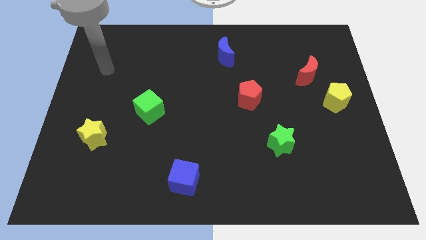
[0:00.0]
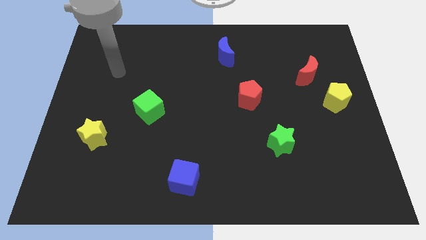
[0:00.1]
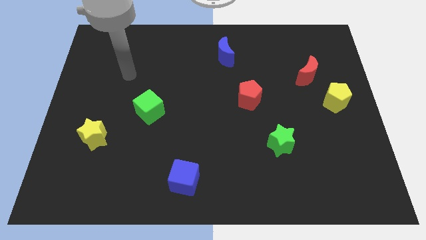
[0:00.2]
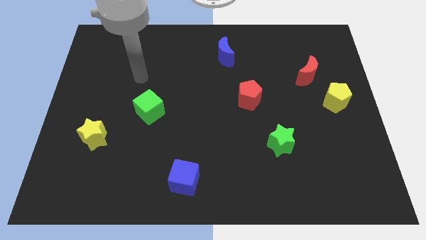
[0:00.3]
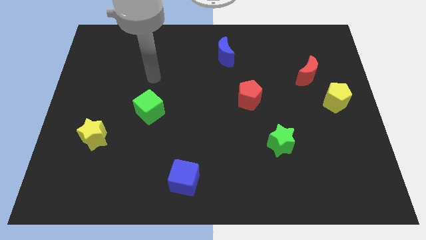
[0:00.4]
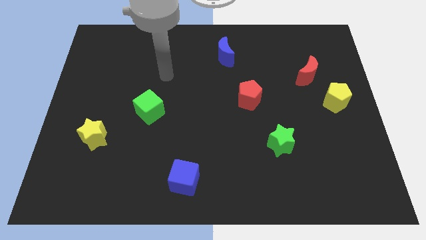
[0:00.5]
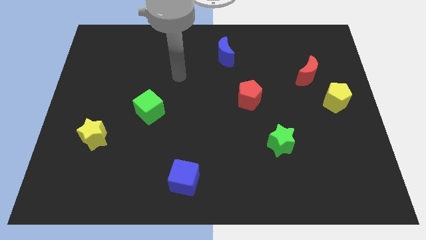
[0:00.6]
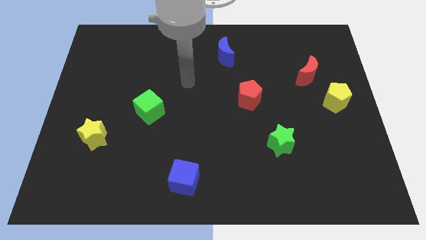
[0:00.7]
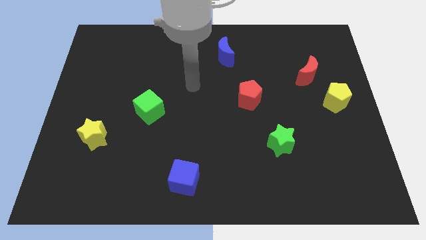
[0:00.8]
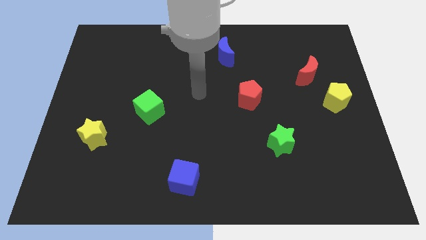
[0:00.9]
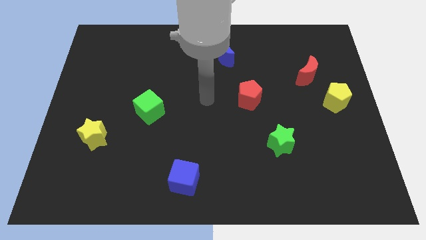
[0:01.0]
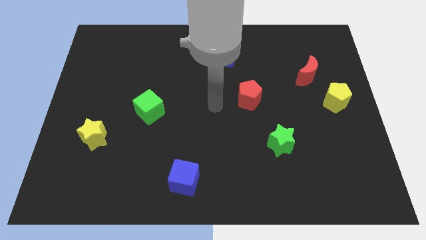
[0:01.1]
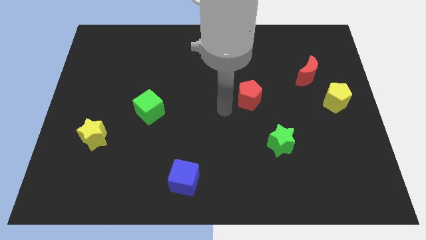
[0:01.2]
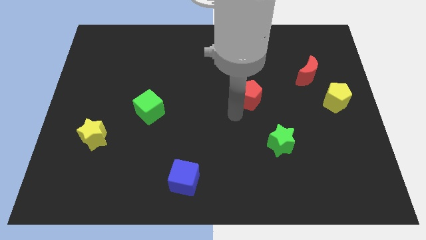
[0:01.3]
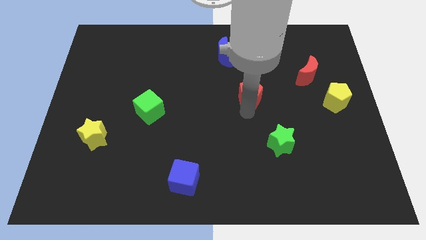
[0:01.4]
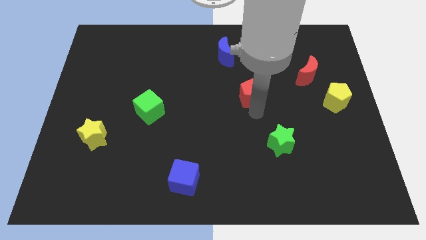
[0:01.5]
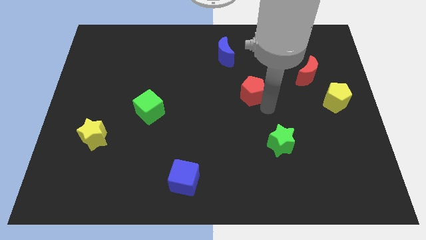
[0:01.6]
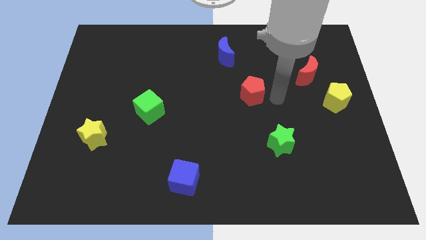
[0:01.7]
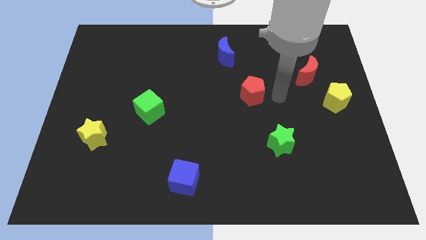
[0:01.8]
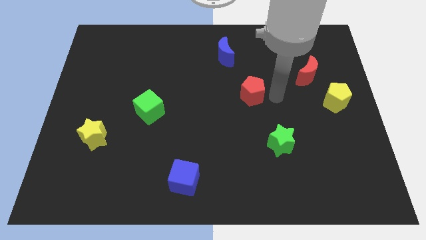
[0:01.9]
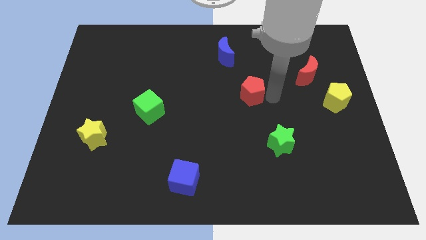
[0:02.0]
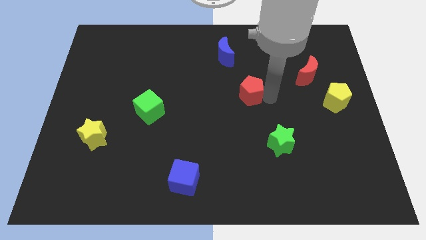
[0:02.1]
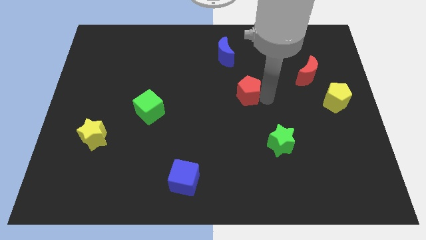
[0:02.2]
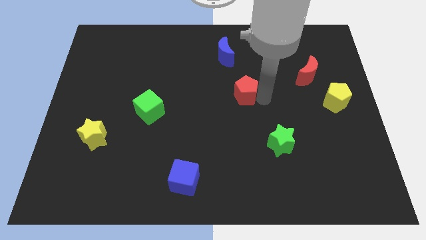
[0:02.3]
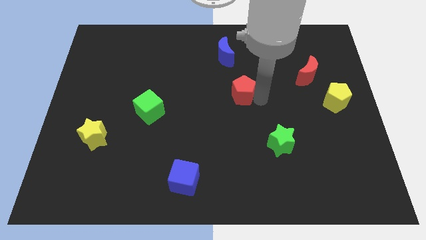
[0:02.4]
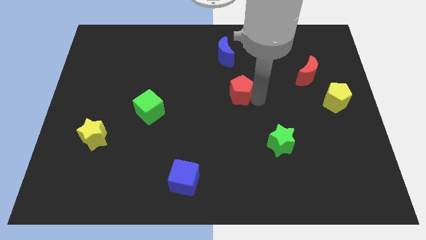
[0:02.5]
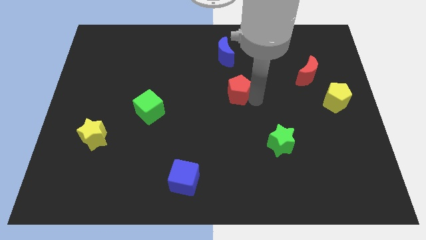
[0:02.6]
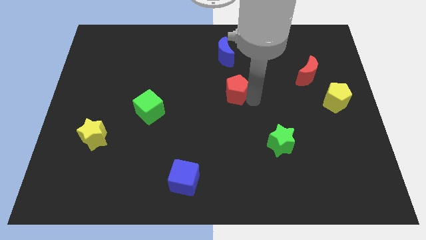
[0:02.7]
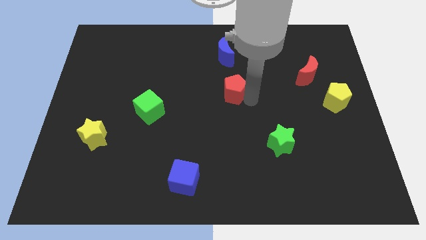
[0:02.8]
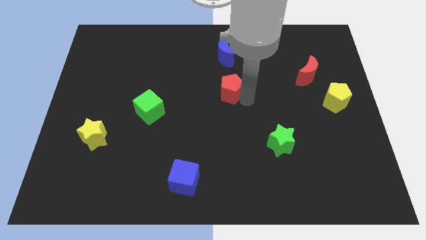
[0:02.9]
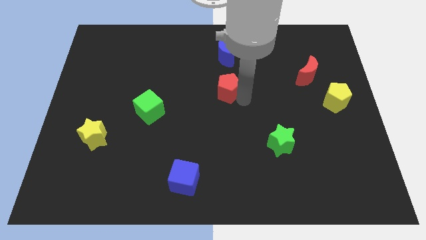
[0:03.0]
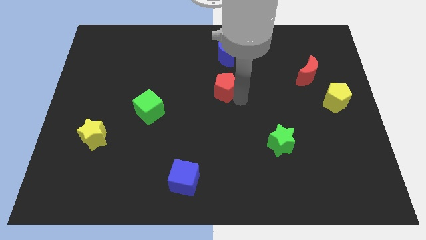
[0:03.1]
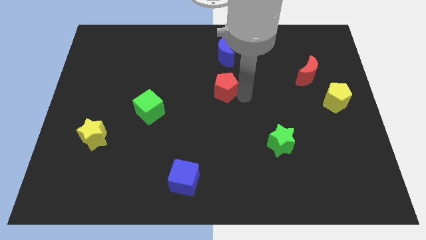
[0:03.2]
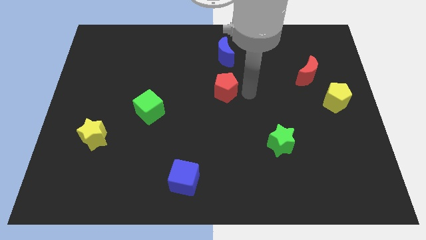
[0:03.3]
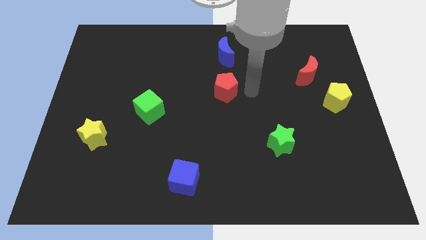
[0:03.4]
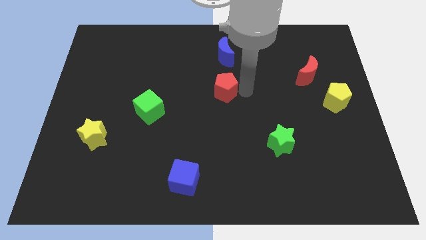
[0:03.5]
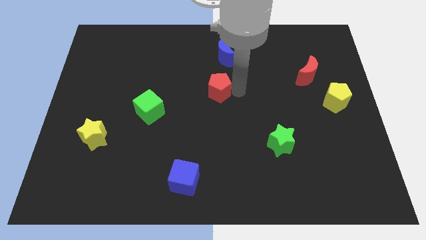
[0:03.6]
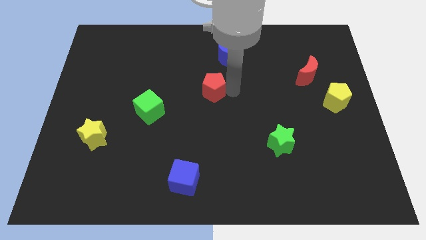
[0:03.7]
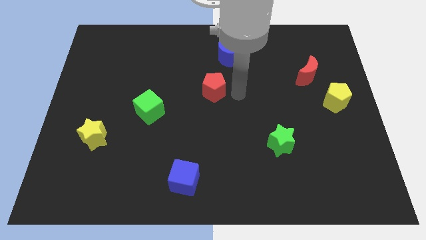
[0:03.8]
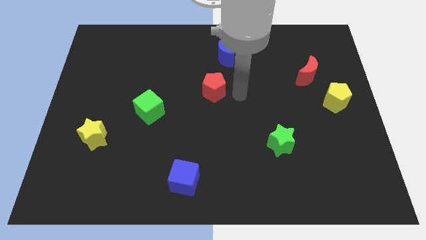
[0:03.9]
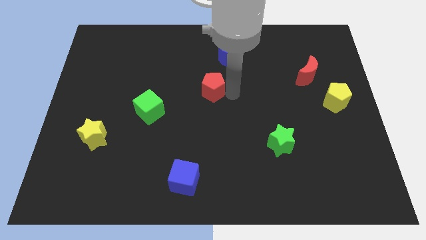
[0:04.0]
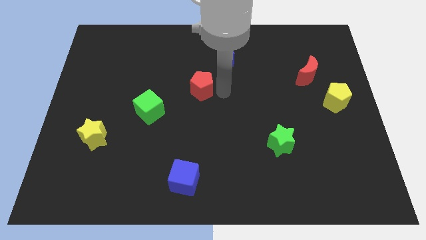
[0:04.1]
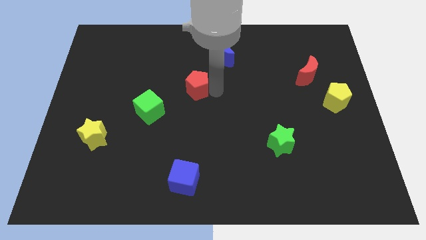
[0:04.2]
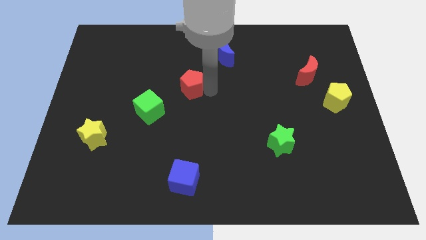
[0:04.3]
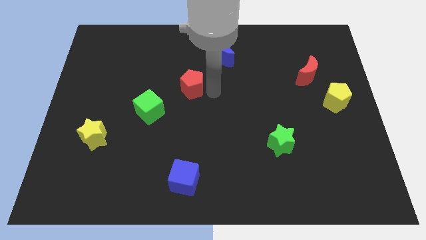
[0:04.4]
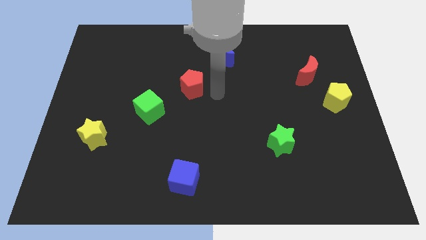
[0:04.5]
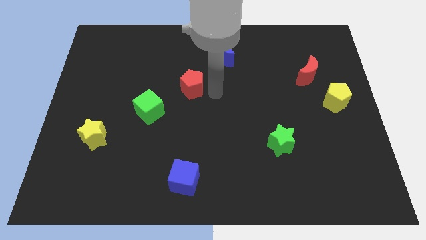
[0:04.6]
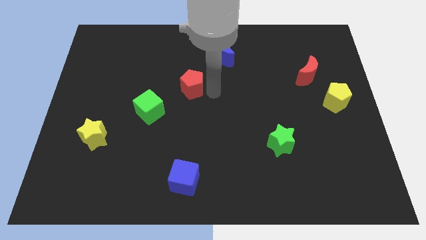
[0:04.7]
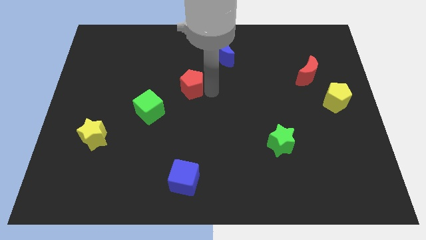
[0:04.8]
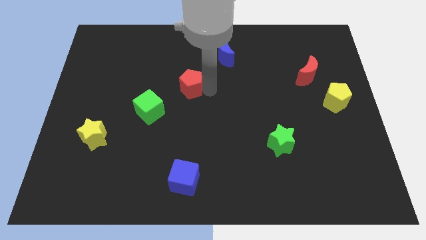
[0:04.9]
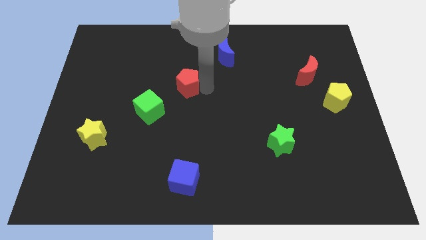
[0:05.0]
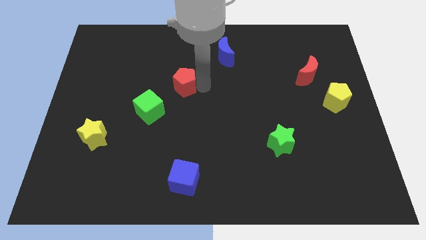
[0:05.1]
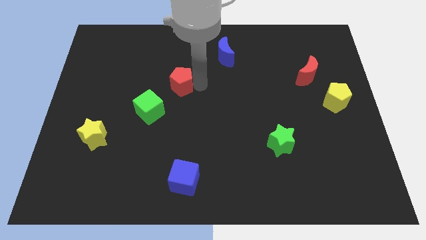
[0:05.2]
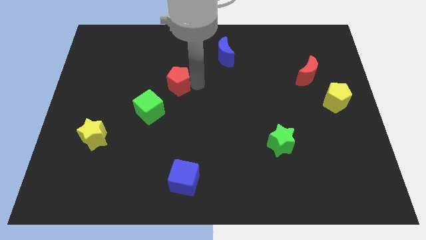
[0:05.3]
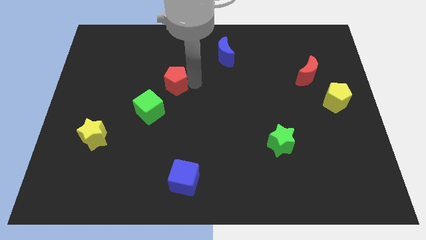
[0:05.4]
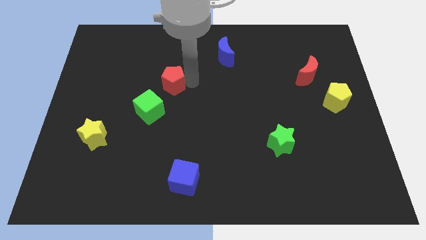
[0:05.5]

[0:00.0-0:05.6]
slide the red pentagon to the top of the green cube
